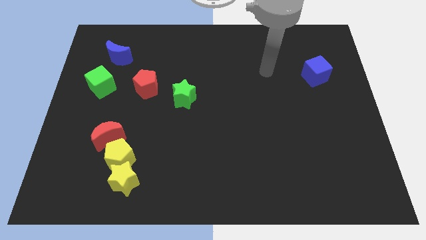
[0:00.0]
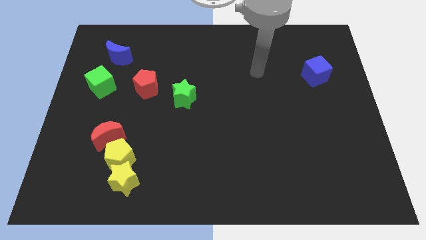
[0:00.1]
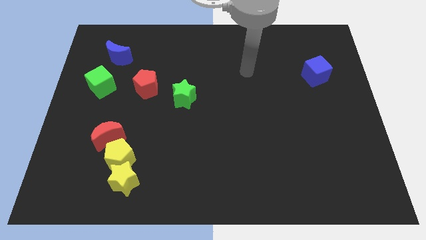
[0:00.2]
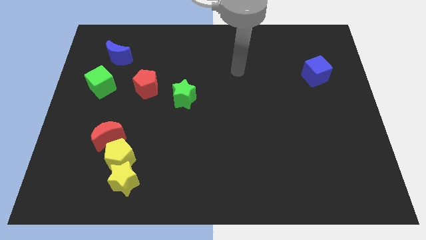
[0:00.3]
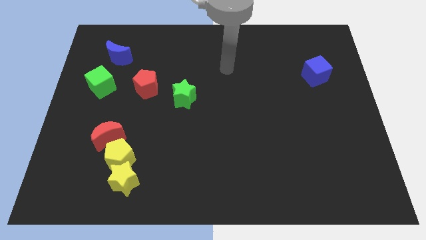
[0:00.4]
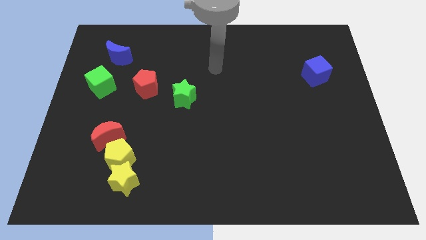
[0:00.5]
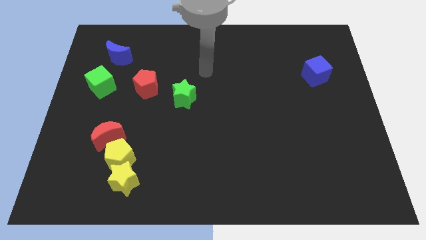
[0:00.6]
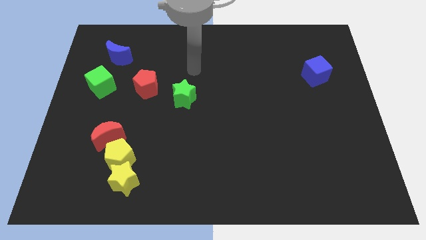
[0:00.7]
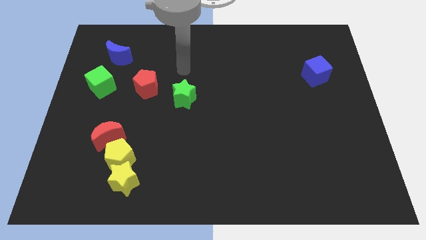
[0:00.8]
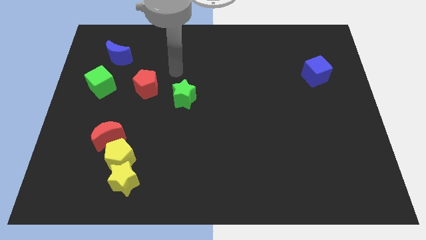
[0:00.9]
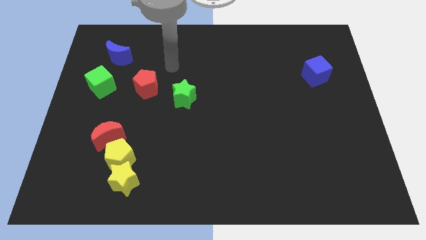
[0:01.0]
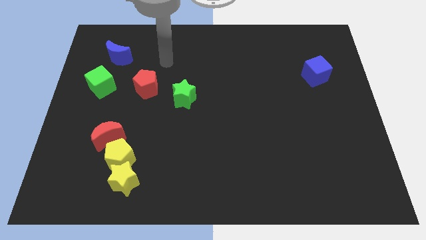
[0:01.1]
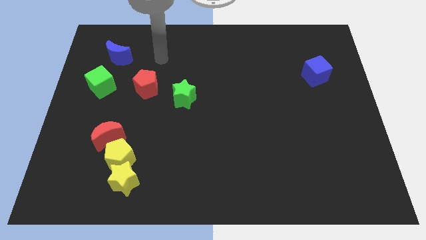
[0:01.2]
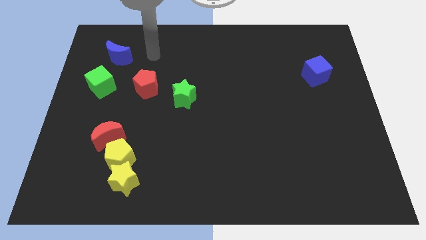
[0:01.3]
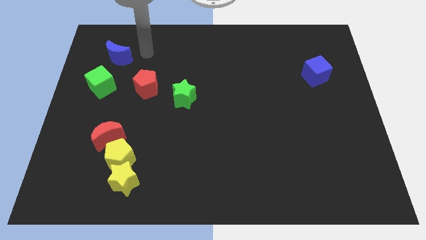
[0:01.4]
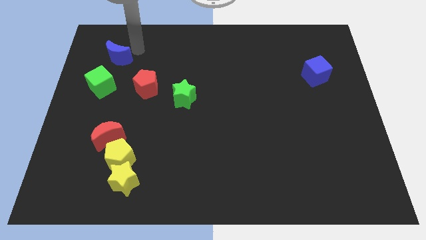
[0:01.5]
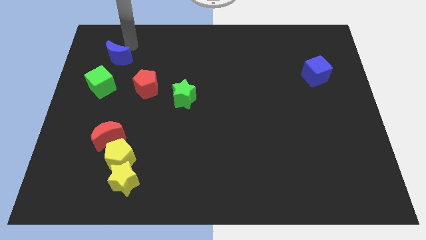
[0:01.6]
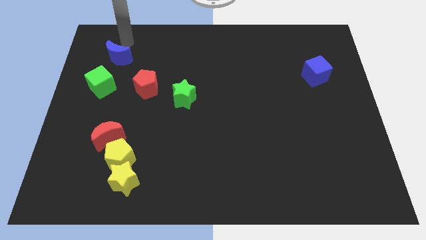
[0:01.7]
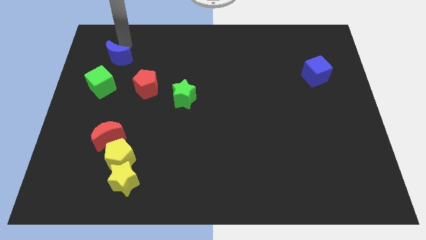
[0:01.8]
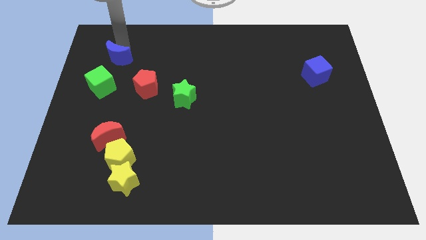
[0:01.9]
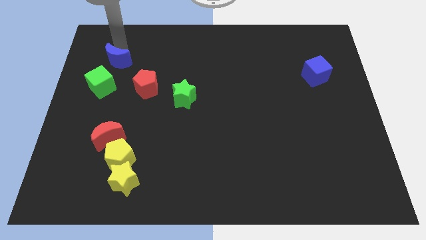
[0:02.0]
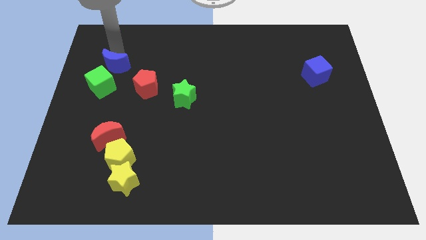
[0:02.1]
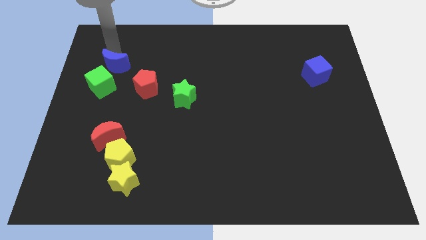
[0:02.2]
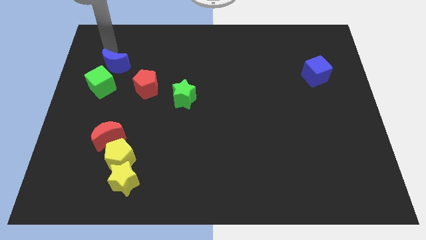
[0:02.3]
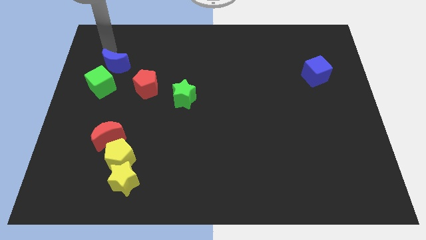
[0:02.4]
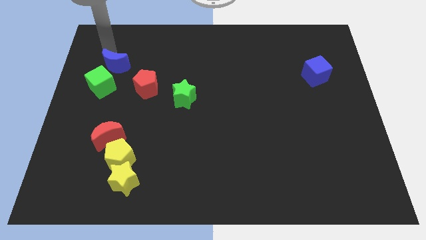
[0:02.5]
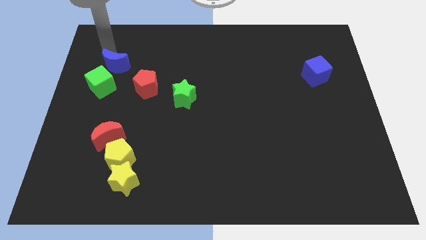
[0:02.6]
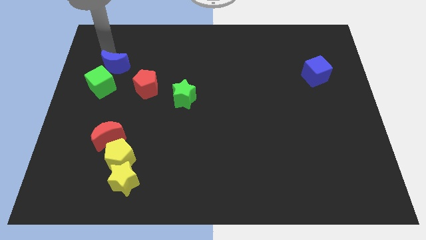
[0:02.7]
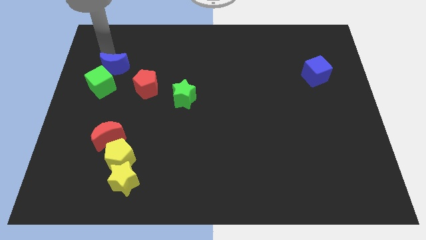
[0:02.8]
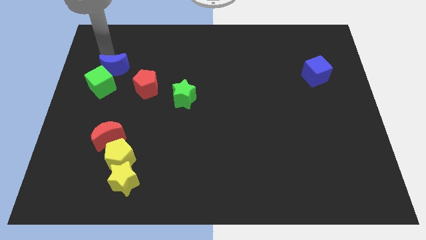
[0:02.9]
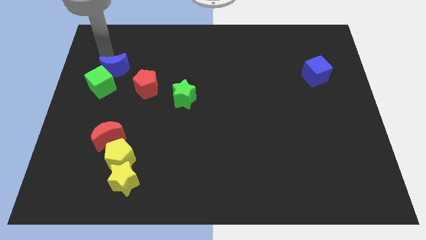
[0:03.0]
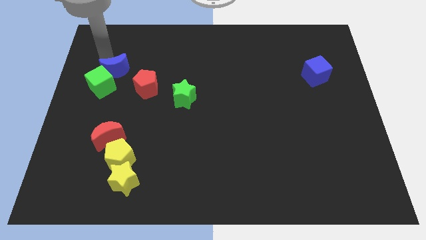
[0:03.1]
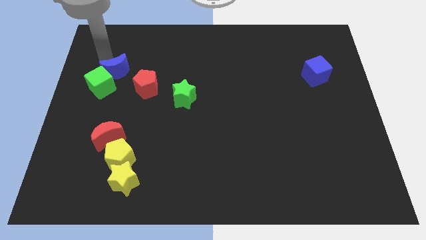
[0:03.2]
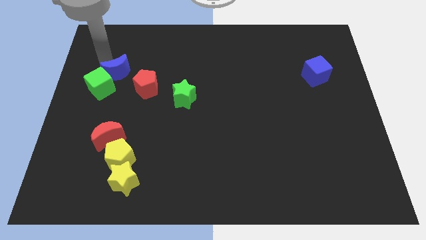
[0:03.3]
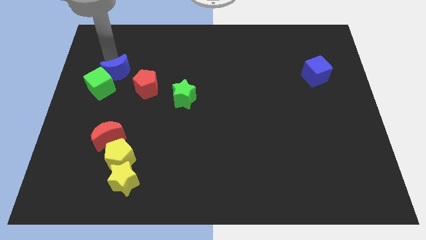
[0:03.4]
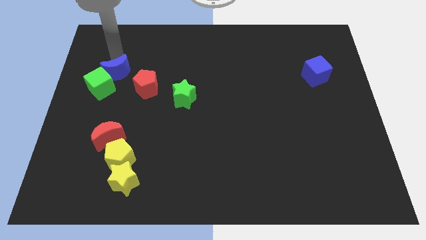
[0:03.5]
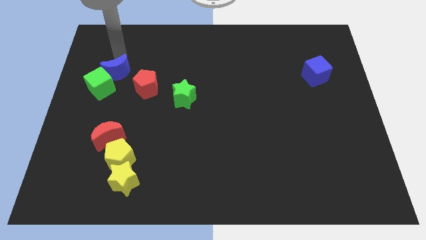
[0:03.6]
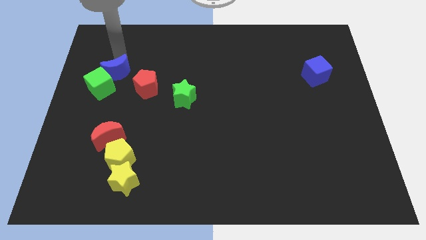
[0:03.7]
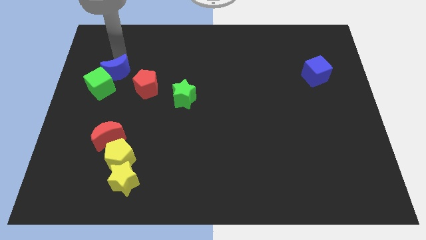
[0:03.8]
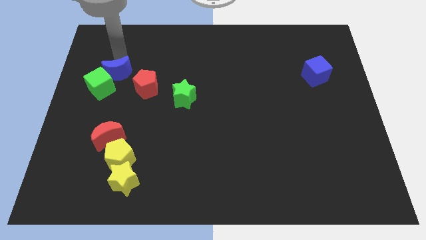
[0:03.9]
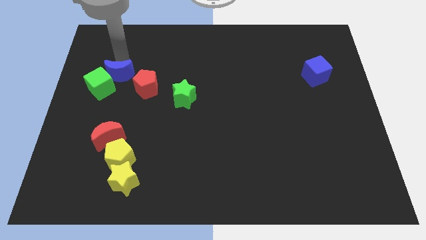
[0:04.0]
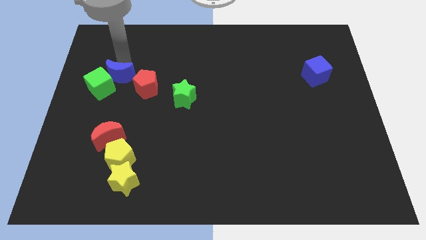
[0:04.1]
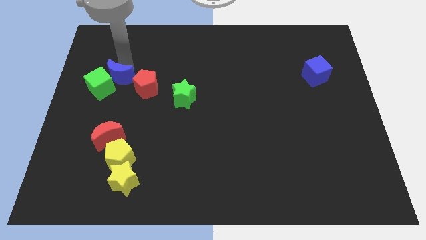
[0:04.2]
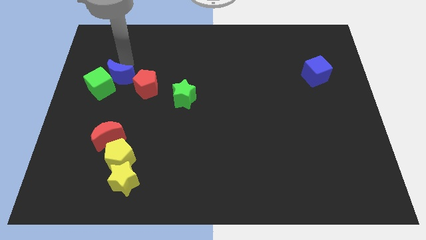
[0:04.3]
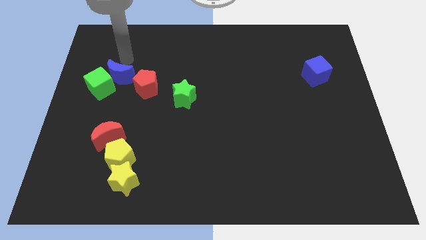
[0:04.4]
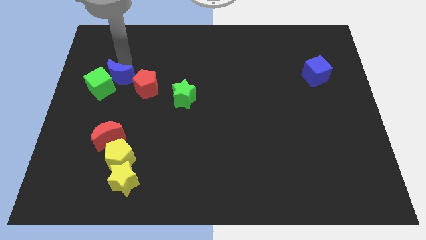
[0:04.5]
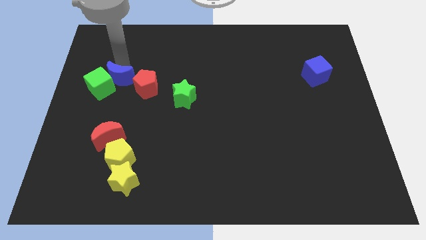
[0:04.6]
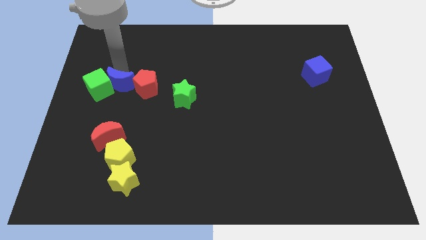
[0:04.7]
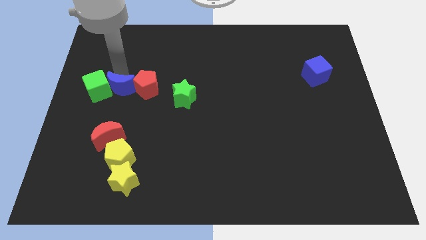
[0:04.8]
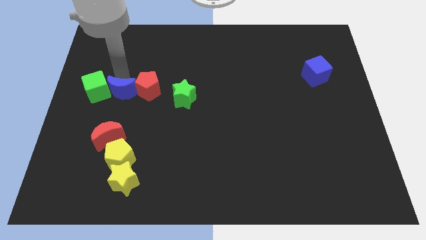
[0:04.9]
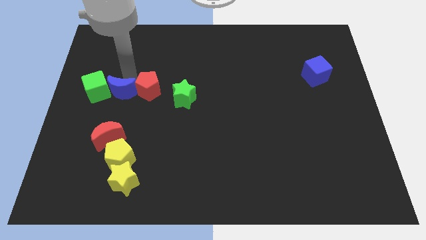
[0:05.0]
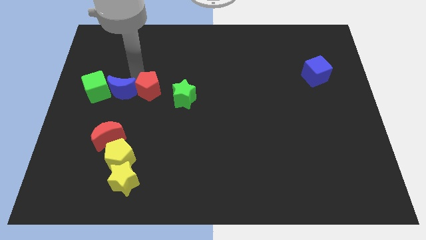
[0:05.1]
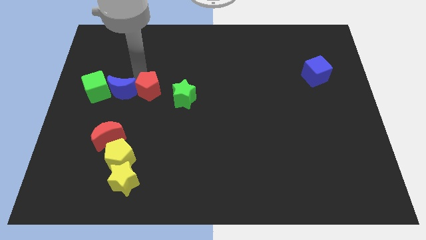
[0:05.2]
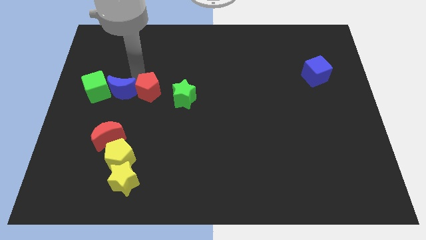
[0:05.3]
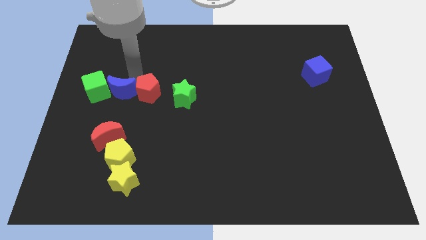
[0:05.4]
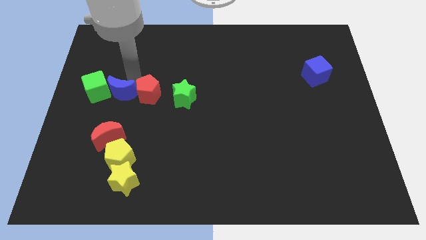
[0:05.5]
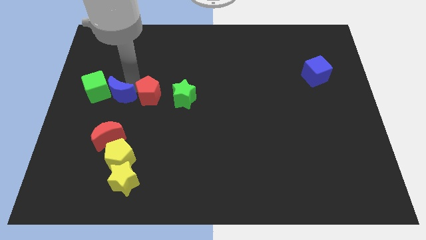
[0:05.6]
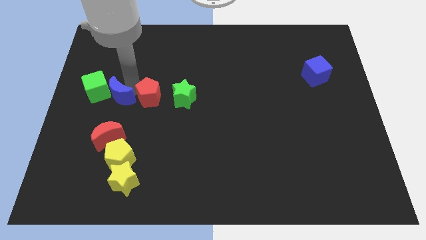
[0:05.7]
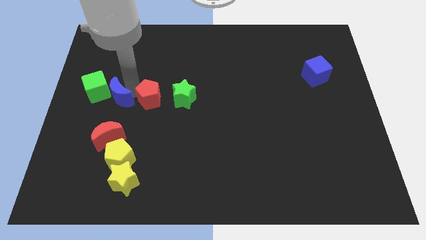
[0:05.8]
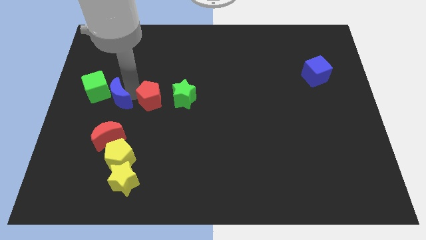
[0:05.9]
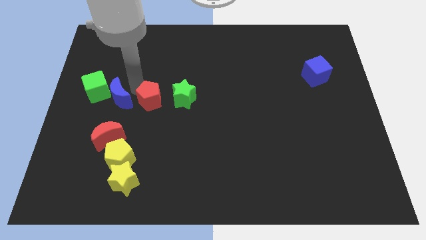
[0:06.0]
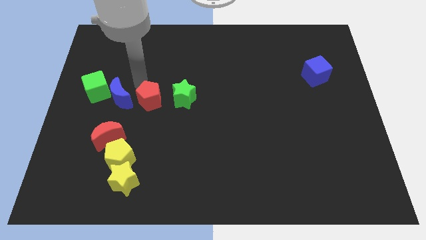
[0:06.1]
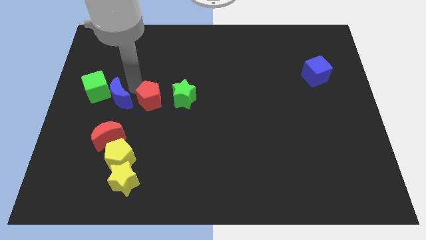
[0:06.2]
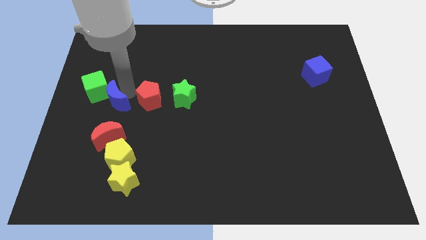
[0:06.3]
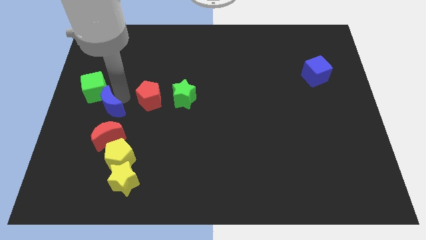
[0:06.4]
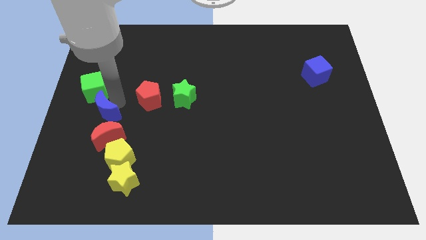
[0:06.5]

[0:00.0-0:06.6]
slide the blue moon to the top left of the red moon
